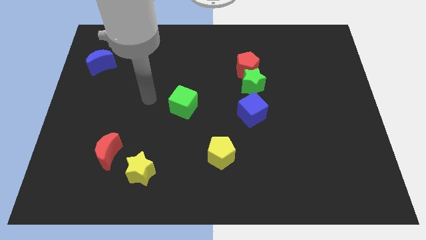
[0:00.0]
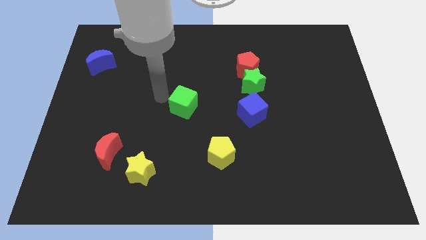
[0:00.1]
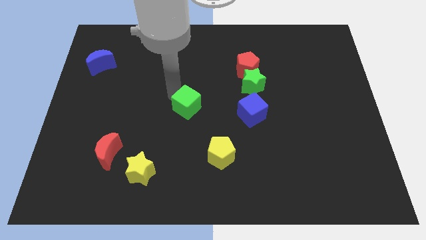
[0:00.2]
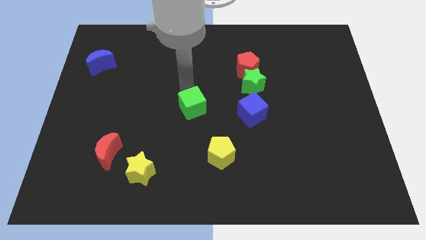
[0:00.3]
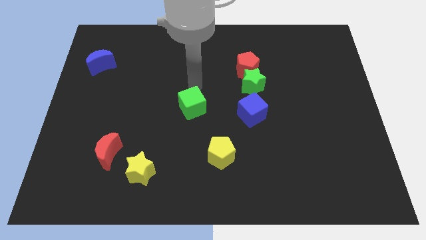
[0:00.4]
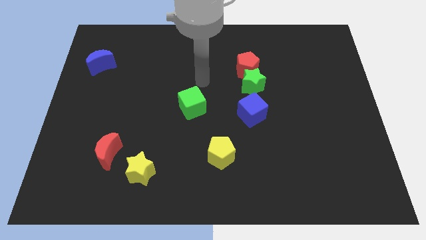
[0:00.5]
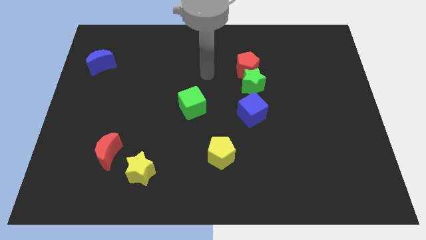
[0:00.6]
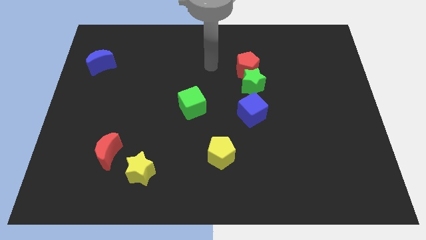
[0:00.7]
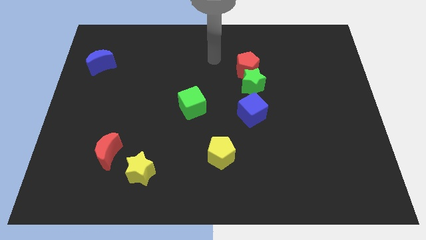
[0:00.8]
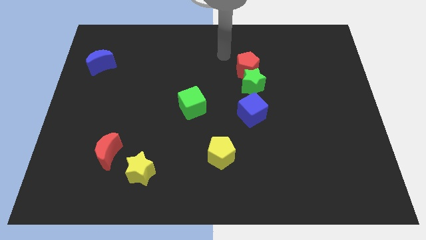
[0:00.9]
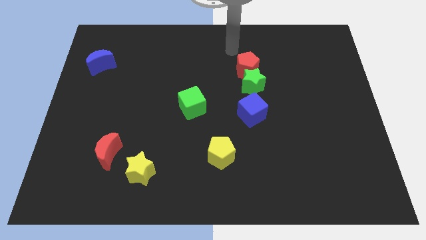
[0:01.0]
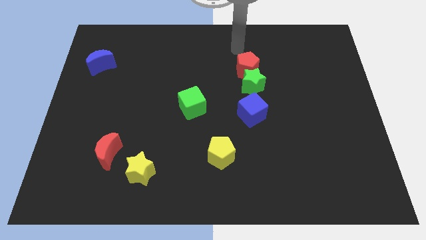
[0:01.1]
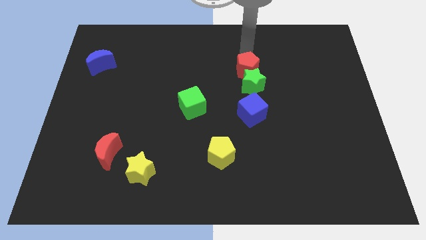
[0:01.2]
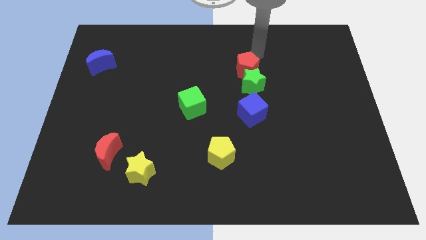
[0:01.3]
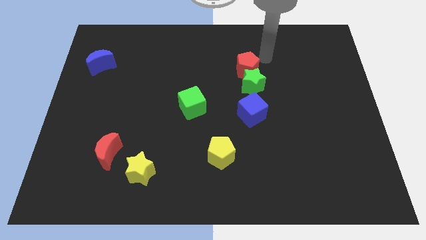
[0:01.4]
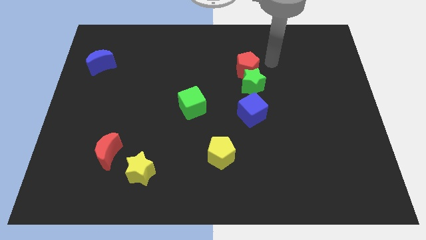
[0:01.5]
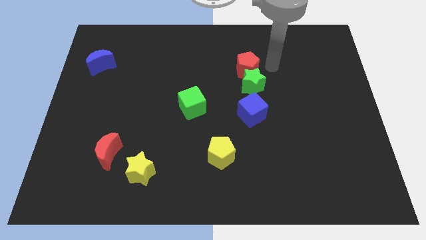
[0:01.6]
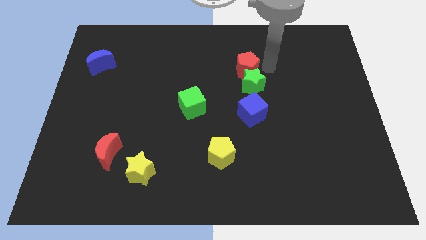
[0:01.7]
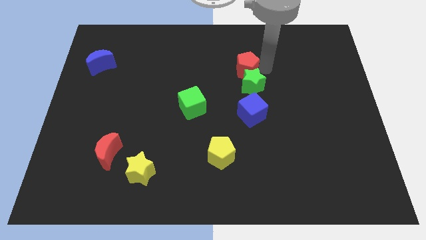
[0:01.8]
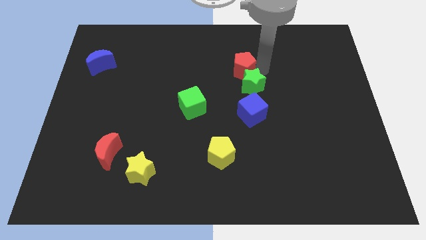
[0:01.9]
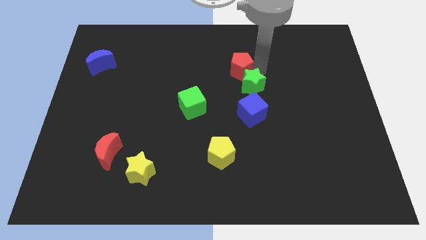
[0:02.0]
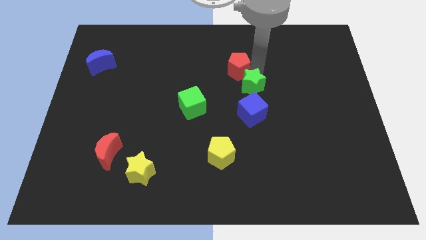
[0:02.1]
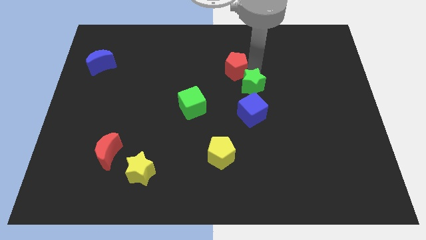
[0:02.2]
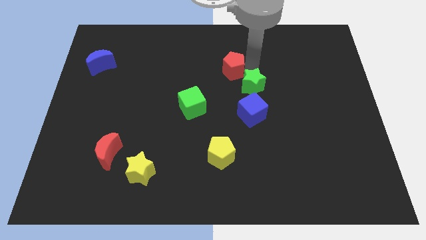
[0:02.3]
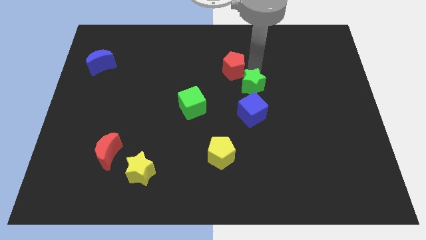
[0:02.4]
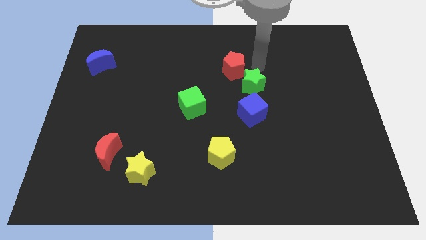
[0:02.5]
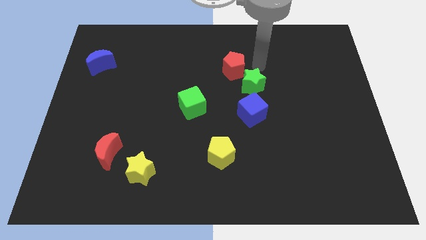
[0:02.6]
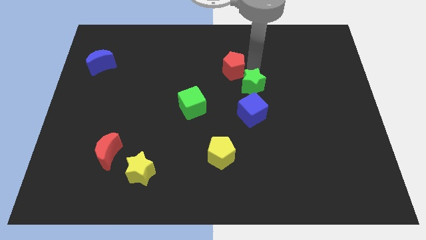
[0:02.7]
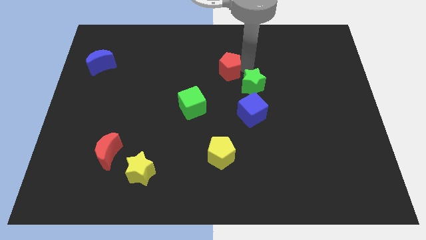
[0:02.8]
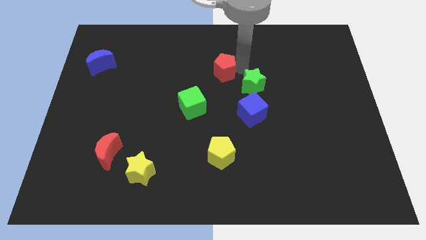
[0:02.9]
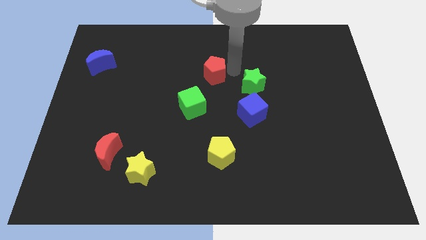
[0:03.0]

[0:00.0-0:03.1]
slide the red pentagon left somewhat

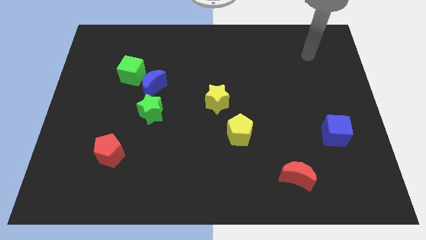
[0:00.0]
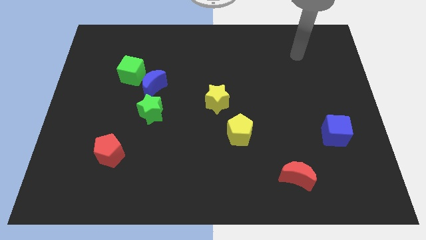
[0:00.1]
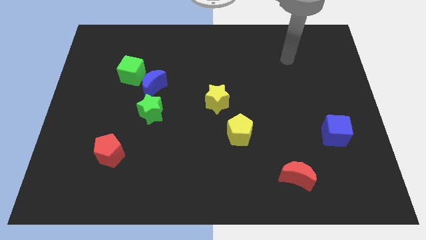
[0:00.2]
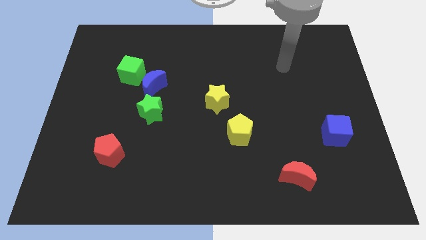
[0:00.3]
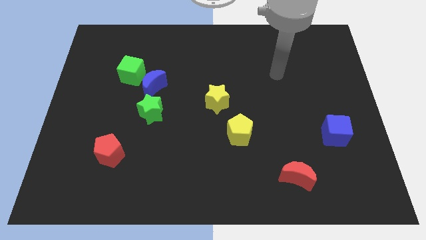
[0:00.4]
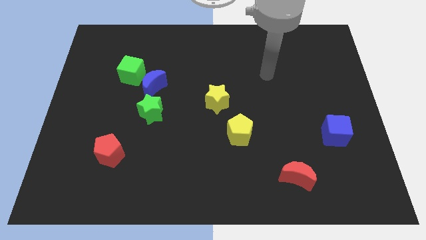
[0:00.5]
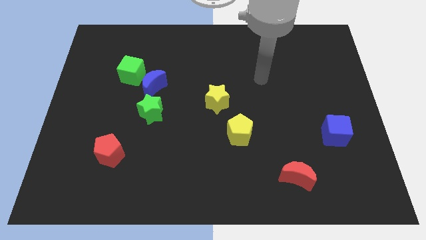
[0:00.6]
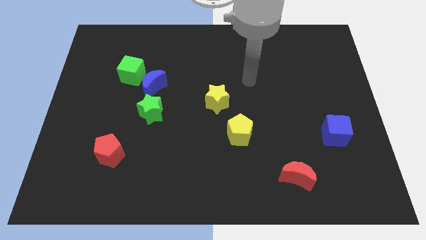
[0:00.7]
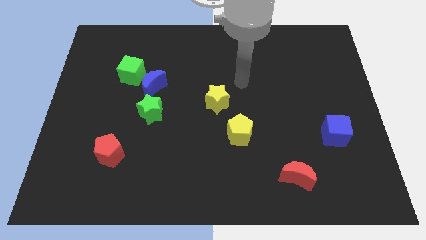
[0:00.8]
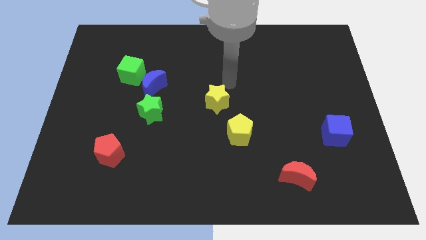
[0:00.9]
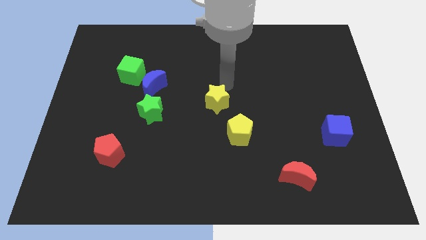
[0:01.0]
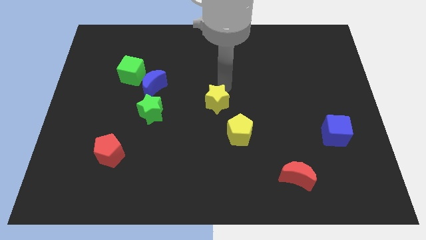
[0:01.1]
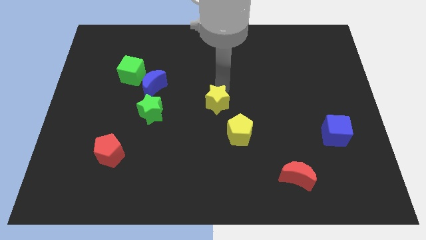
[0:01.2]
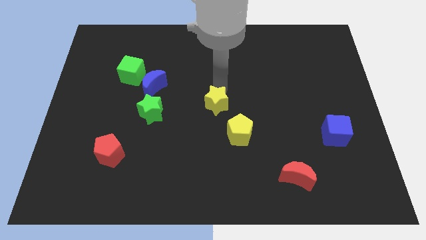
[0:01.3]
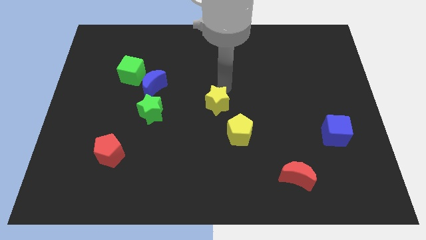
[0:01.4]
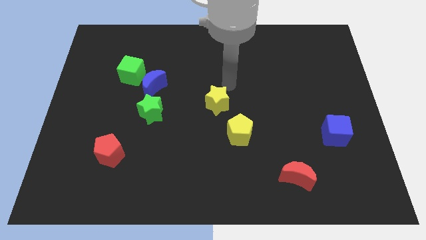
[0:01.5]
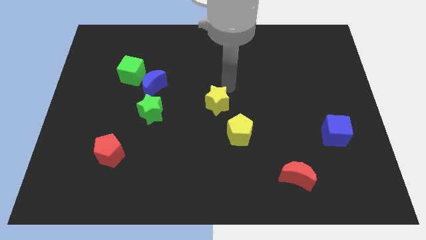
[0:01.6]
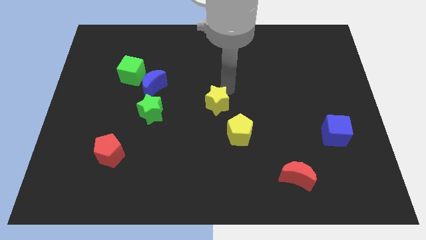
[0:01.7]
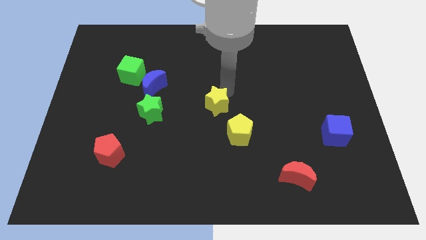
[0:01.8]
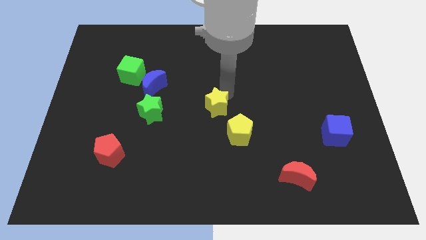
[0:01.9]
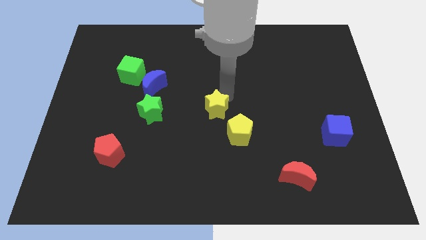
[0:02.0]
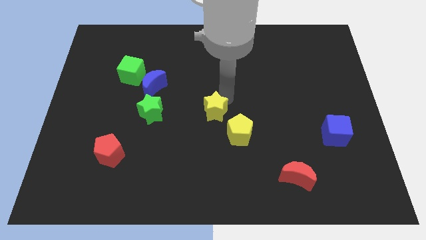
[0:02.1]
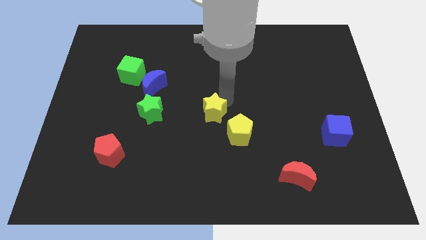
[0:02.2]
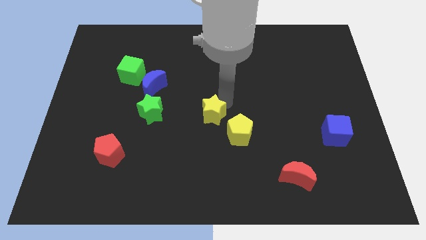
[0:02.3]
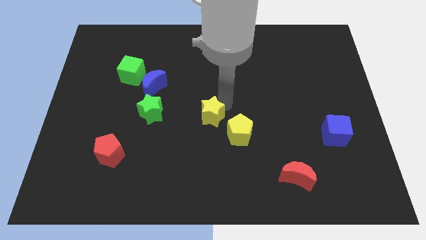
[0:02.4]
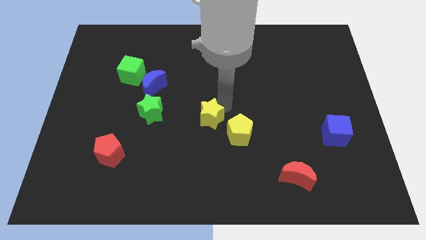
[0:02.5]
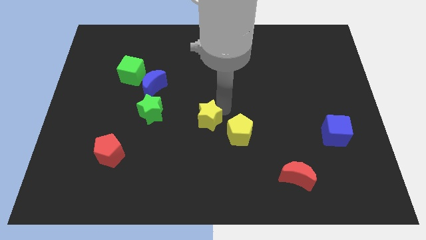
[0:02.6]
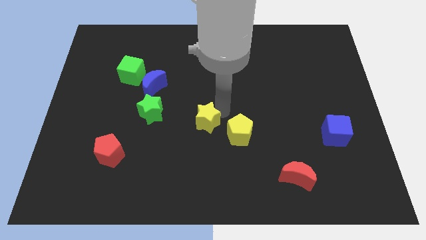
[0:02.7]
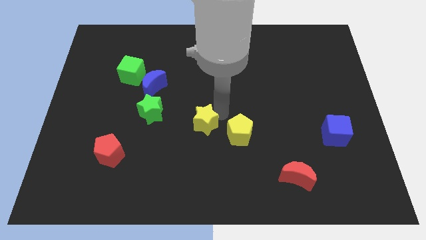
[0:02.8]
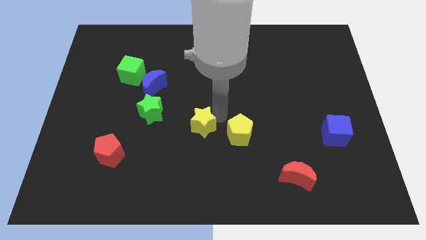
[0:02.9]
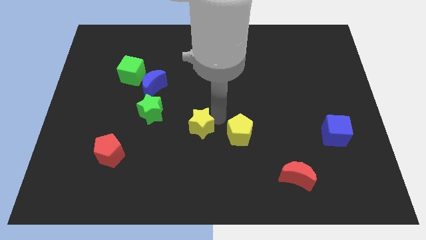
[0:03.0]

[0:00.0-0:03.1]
slightly slide the yellow star diagonally down and left

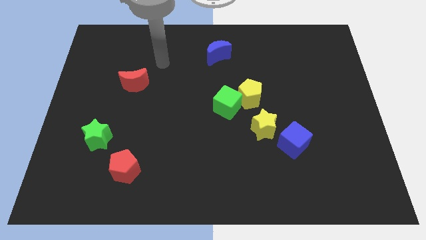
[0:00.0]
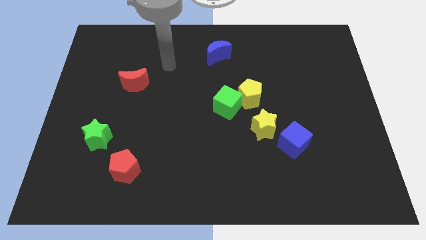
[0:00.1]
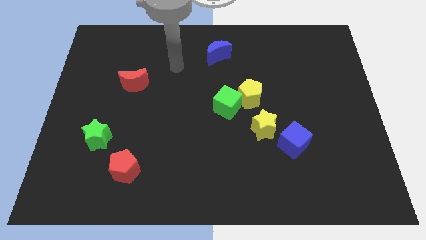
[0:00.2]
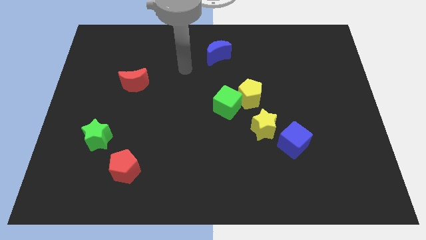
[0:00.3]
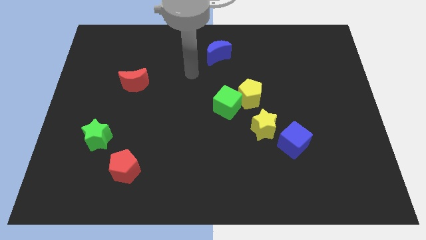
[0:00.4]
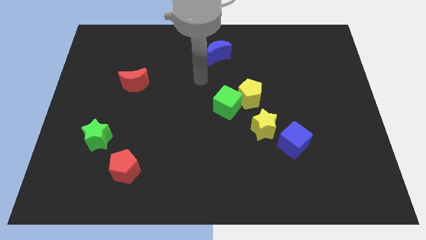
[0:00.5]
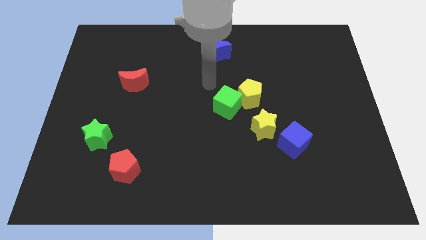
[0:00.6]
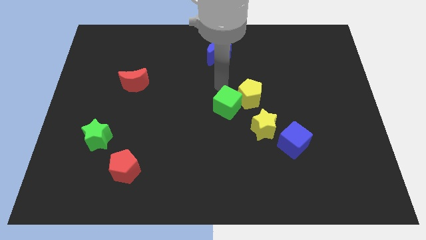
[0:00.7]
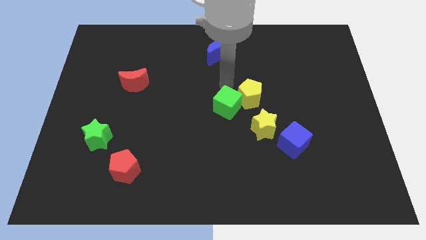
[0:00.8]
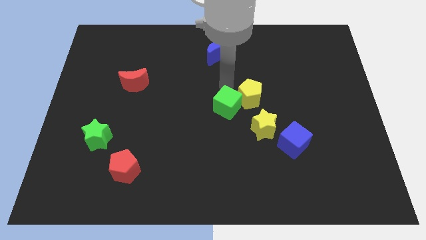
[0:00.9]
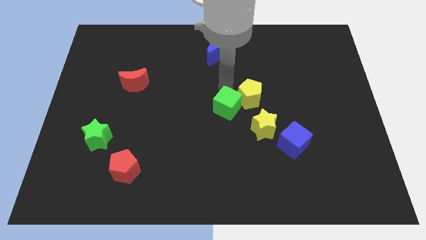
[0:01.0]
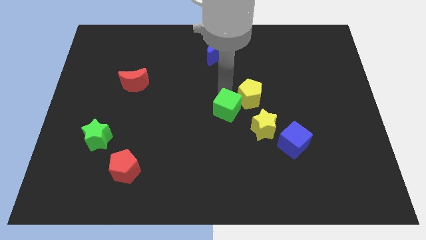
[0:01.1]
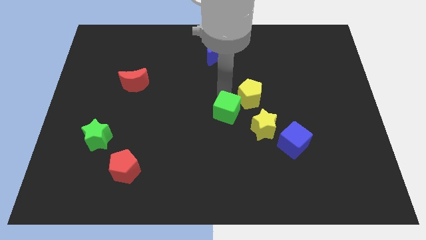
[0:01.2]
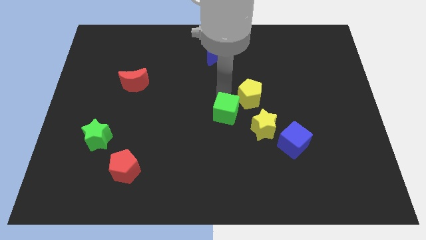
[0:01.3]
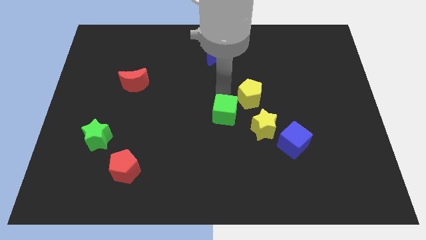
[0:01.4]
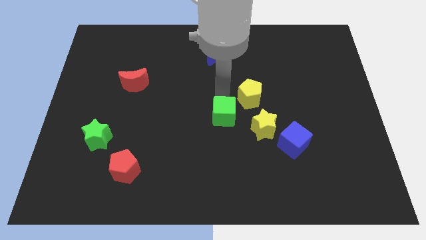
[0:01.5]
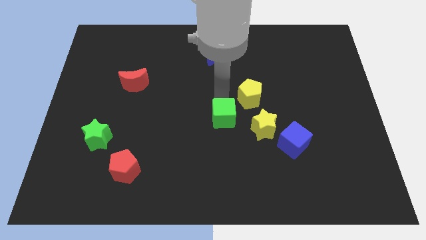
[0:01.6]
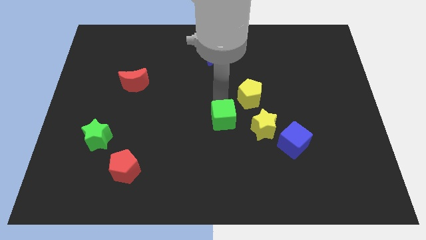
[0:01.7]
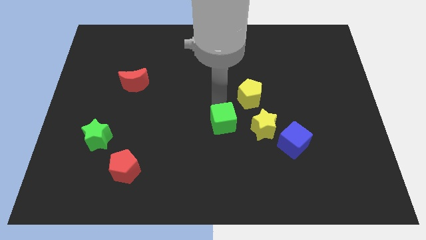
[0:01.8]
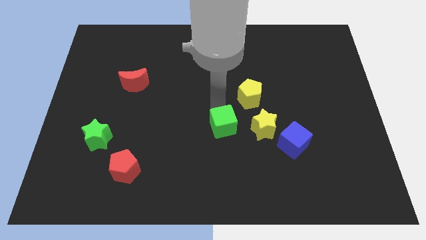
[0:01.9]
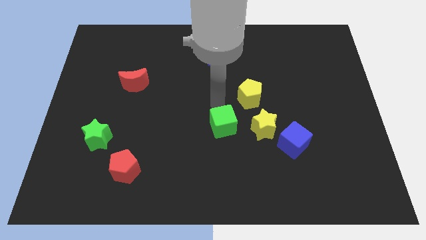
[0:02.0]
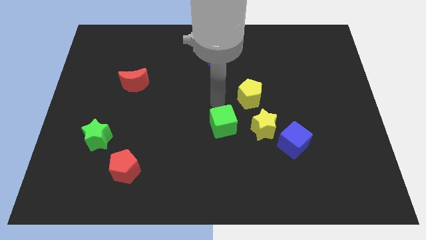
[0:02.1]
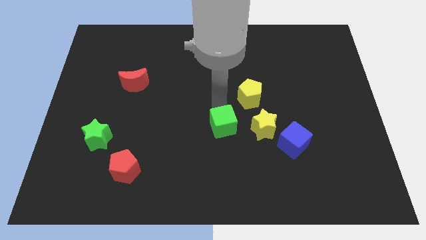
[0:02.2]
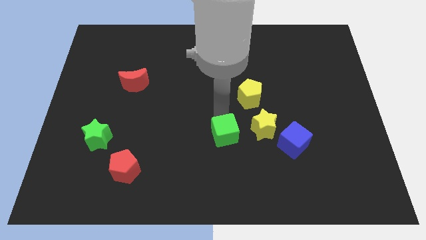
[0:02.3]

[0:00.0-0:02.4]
slightly move the green cube downwards
